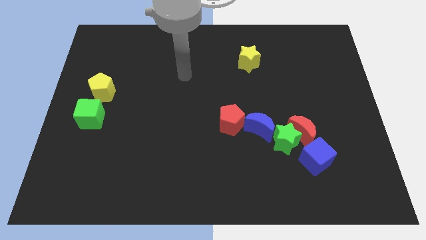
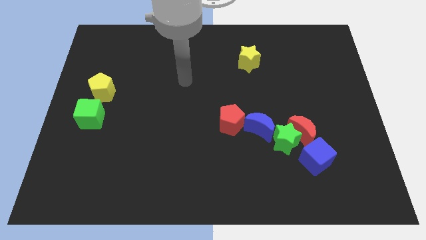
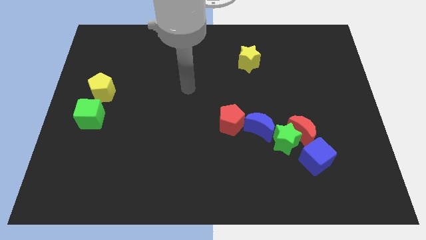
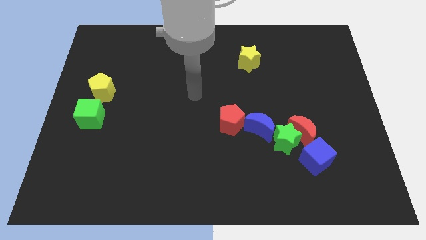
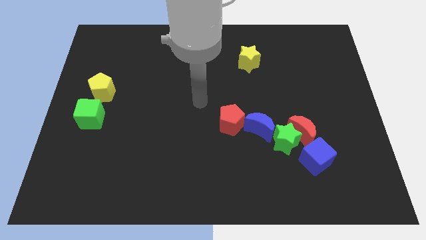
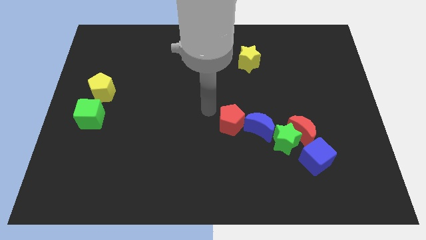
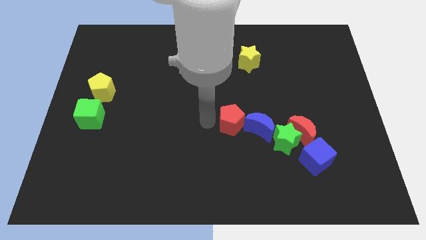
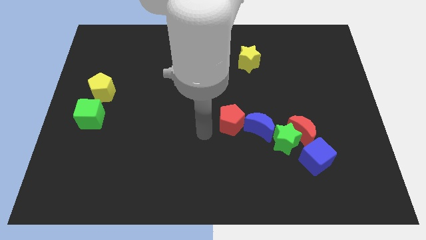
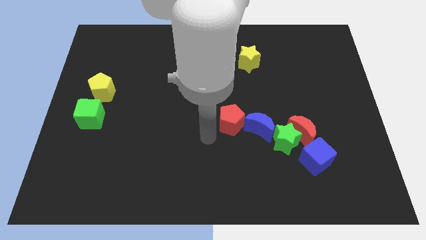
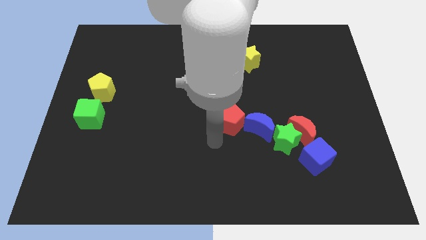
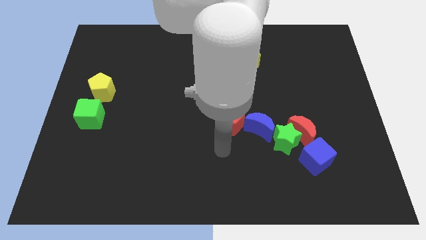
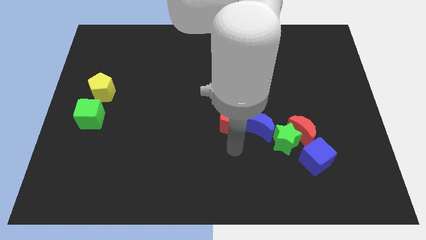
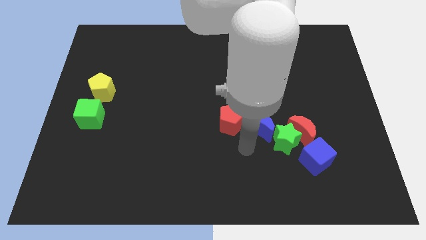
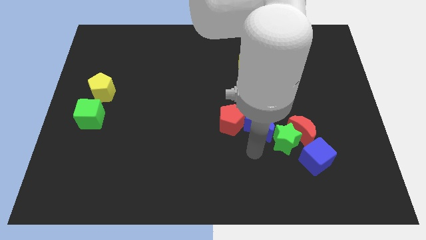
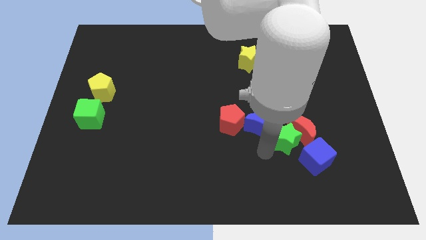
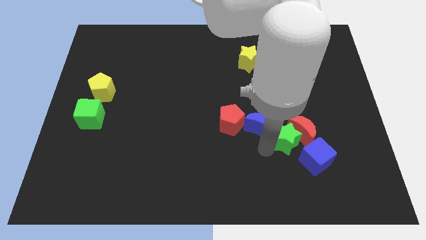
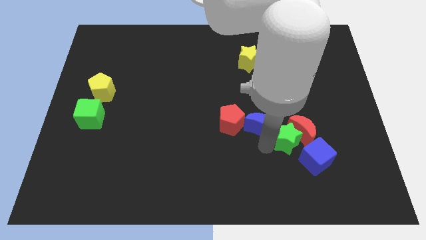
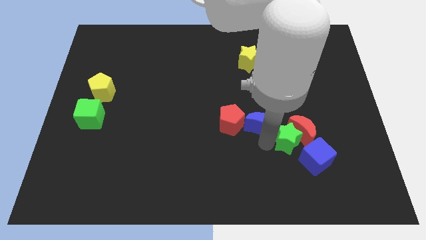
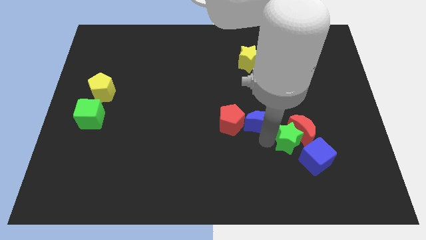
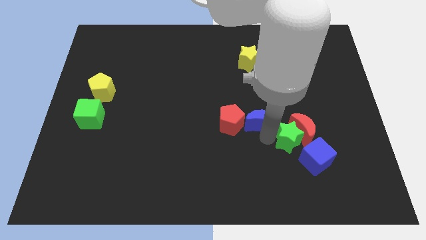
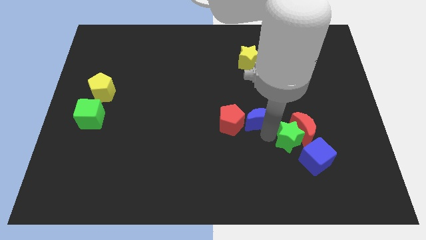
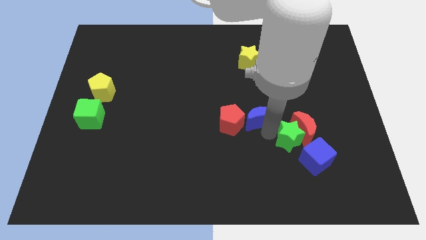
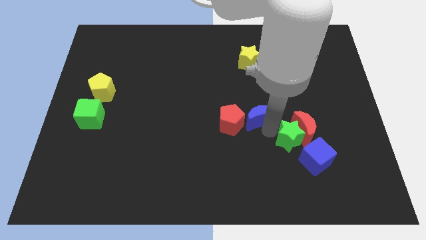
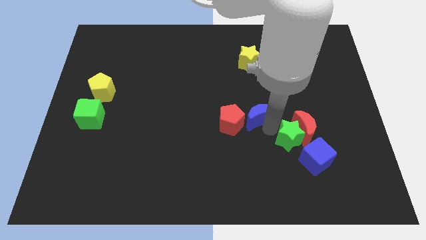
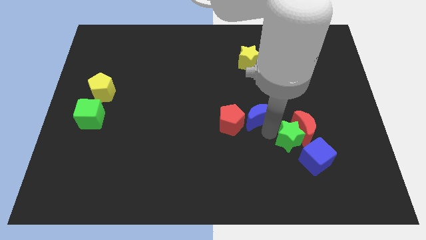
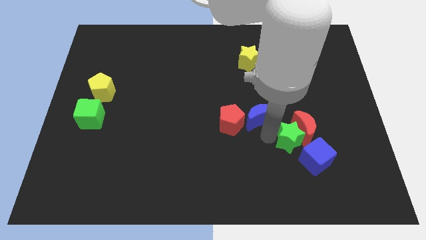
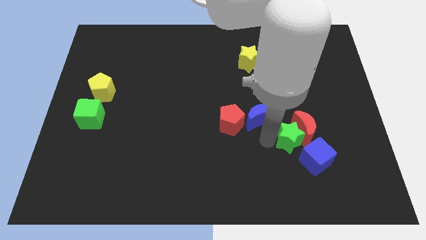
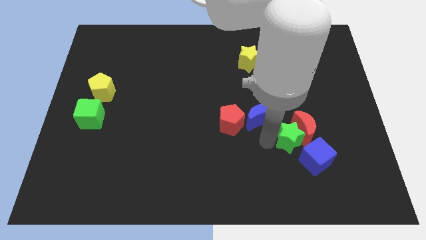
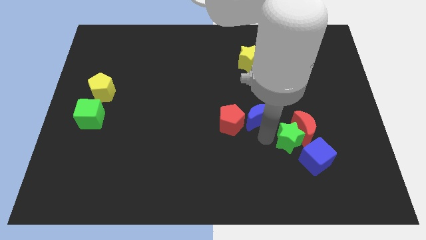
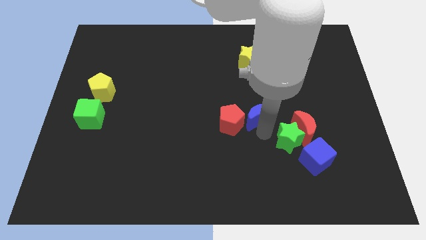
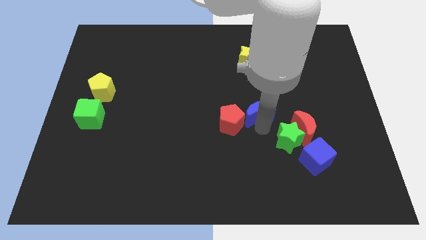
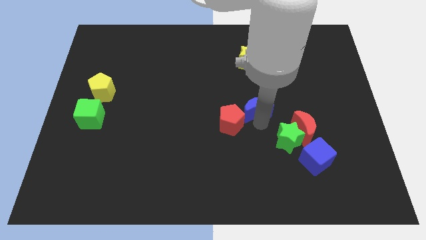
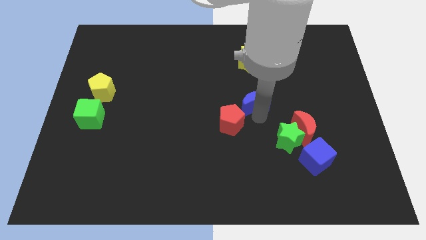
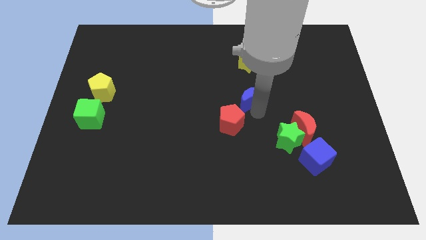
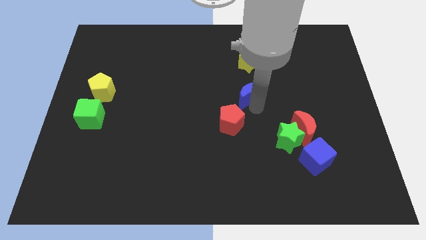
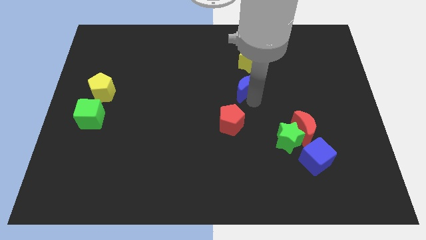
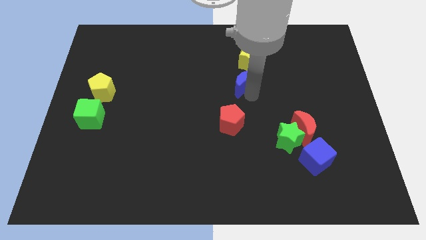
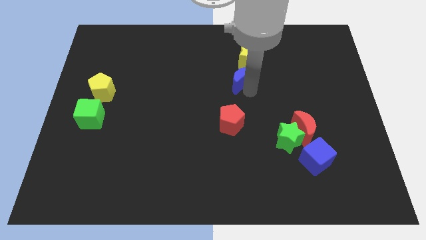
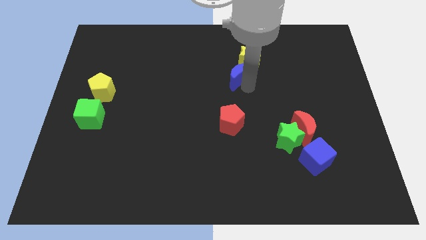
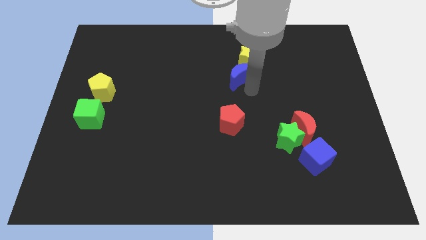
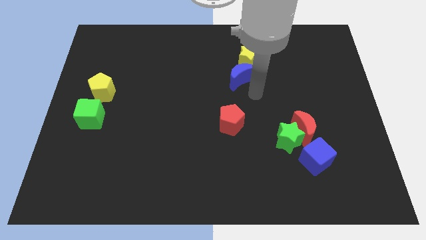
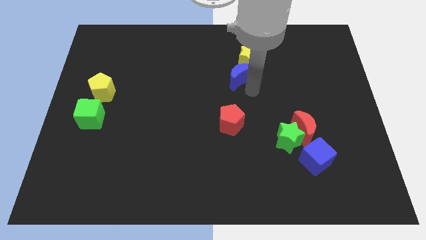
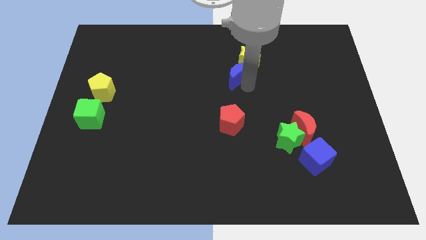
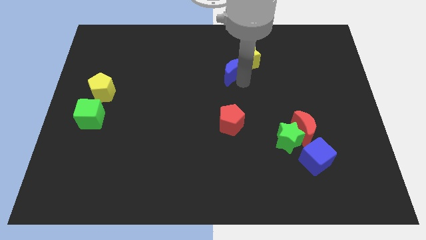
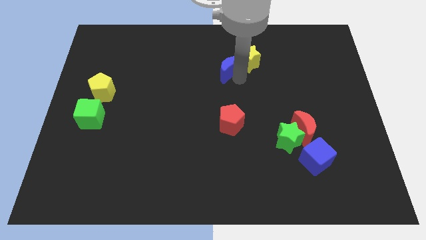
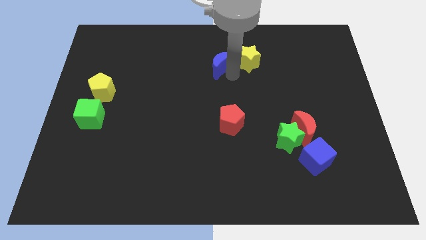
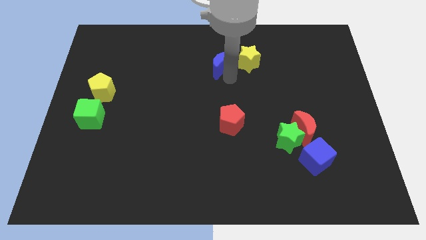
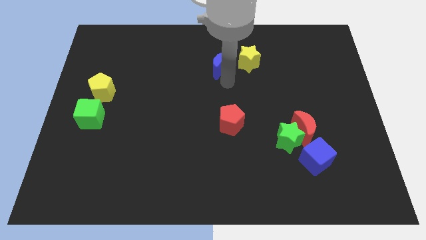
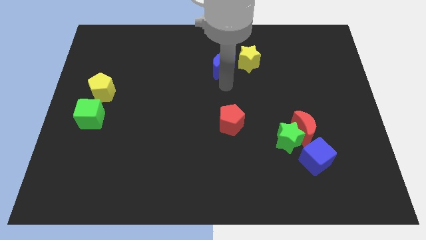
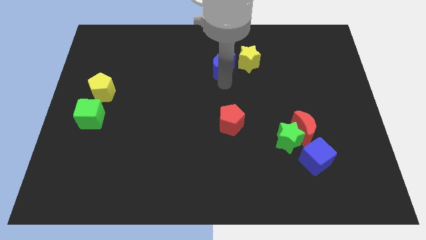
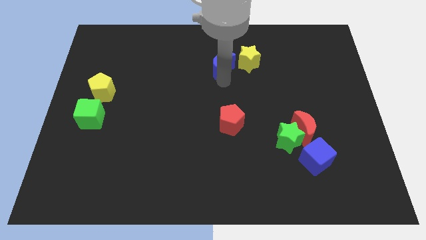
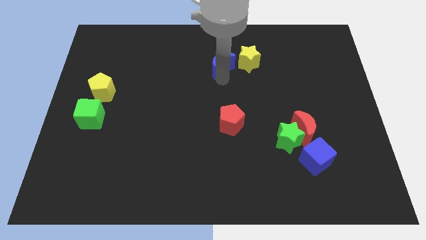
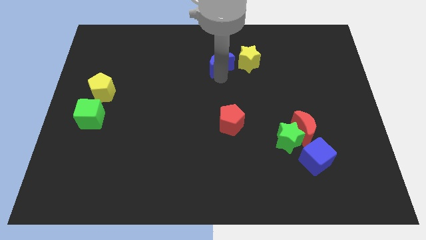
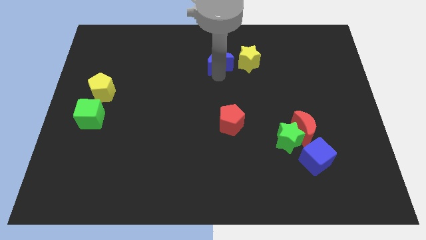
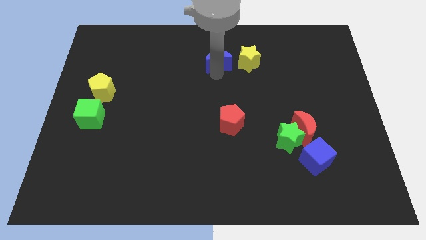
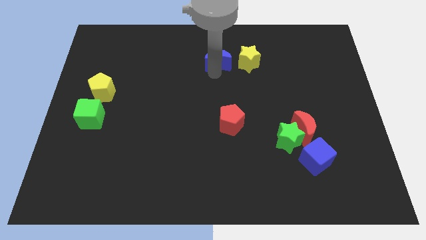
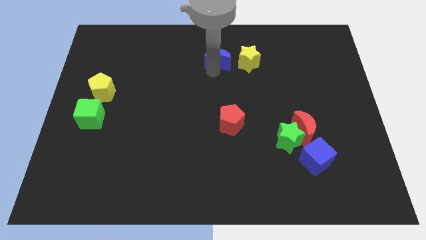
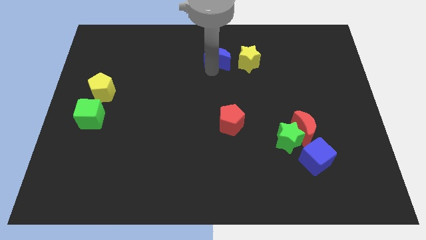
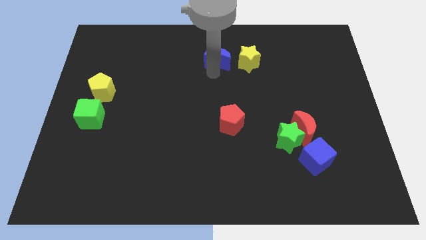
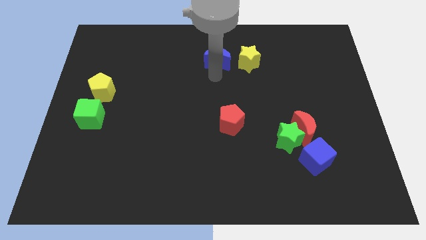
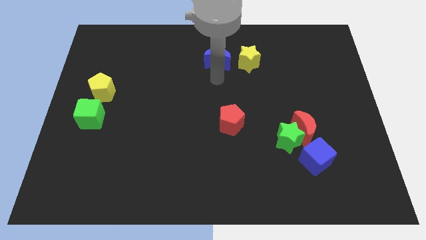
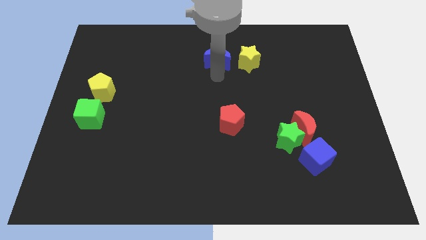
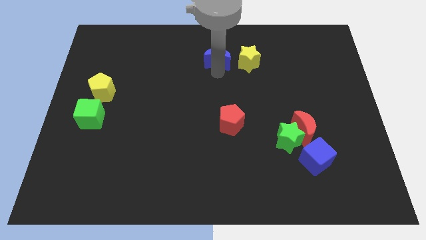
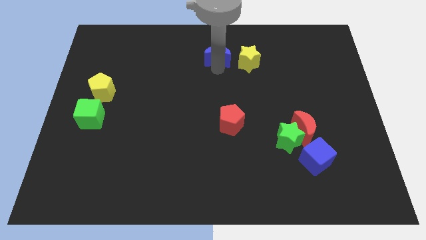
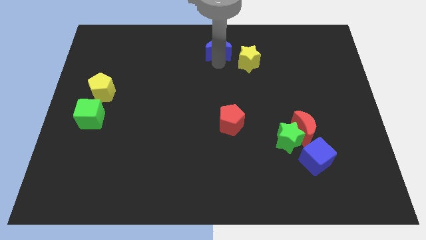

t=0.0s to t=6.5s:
slide the blue moon to the top
